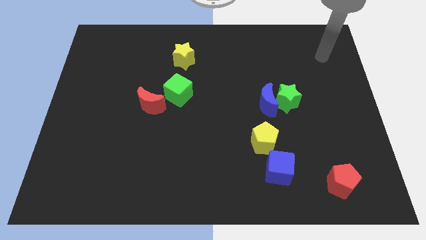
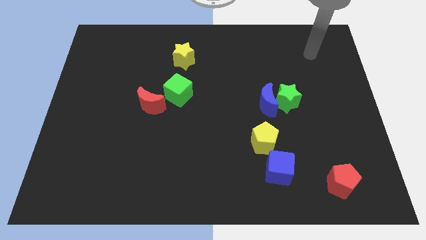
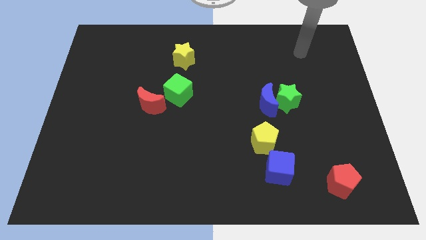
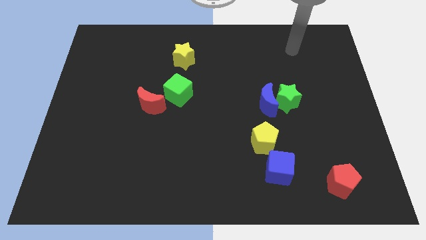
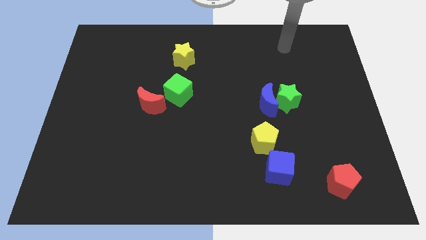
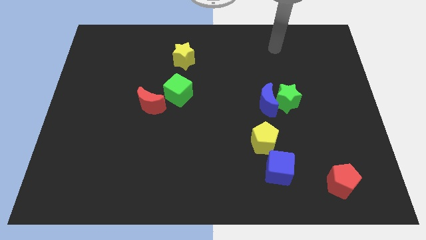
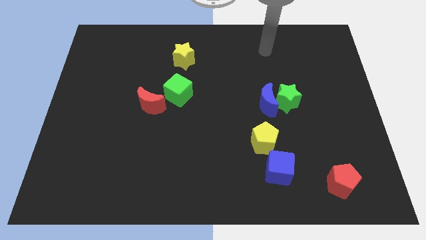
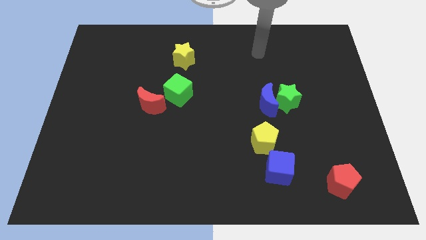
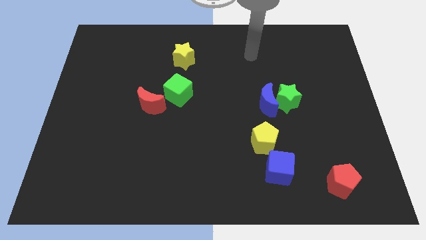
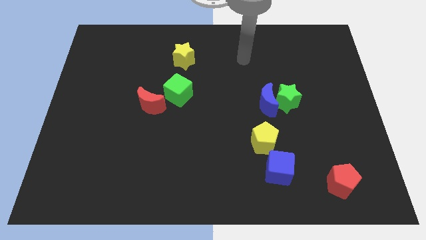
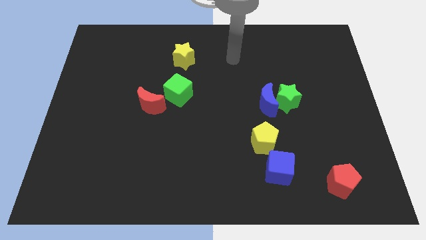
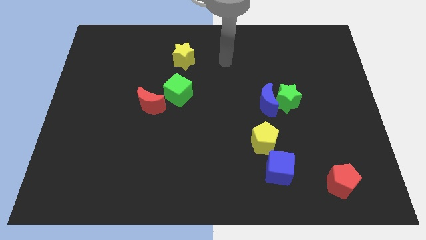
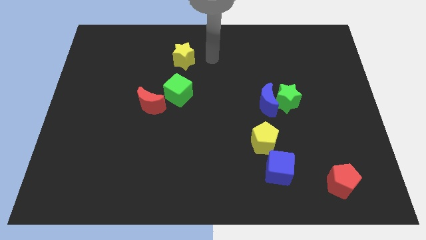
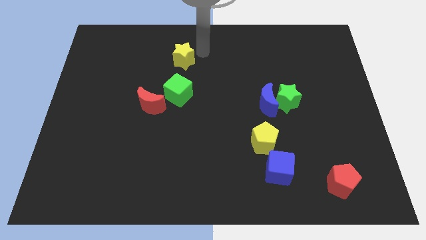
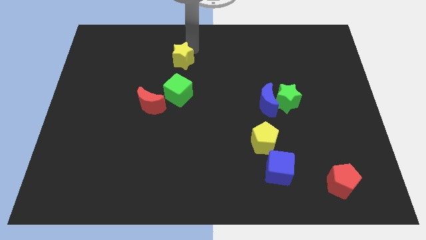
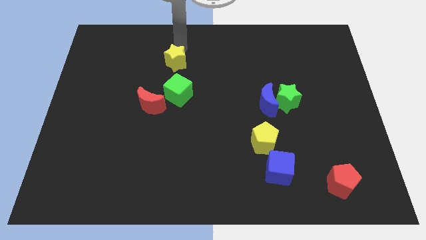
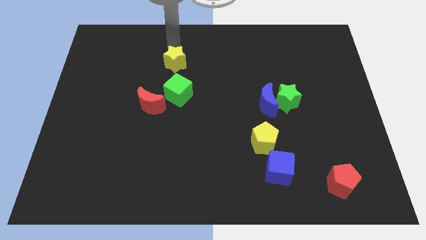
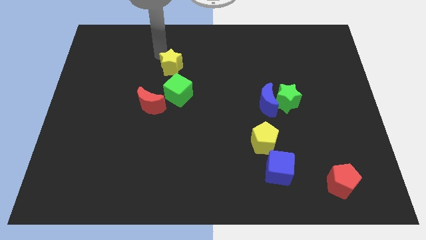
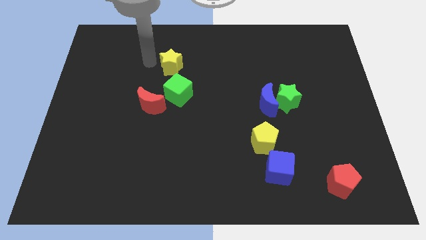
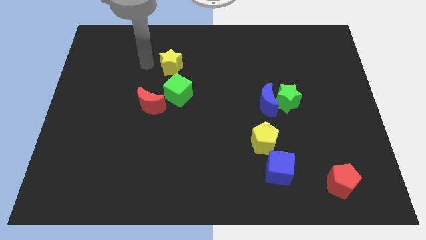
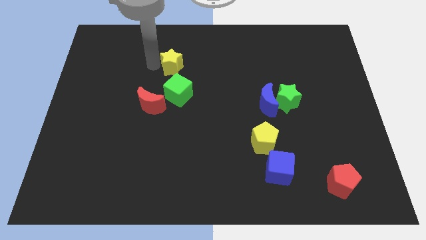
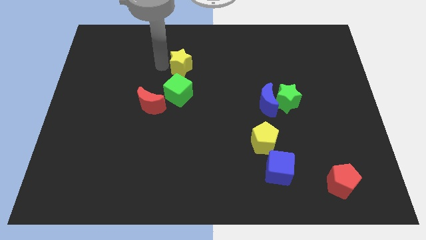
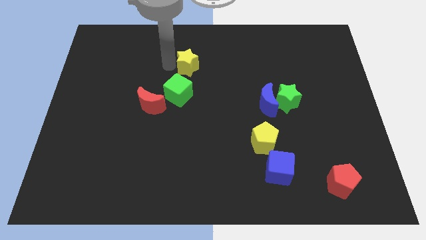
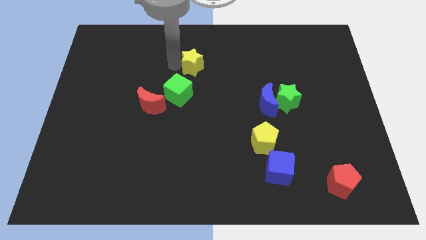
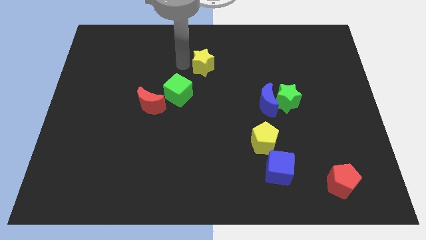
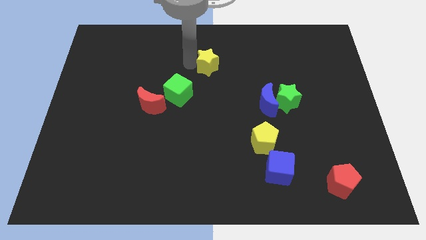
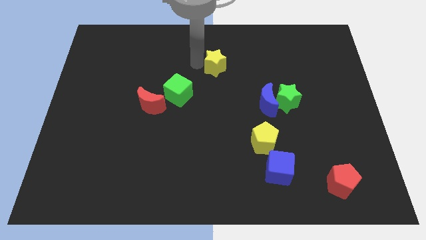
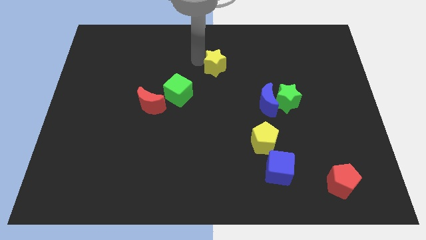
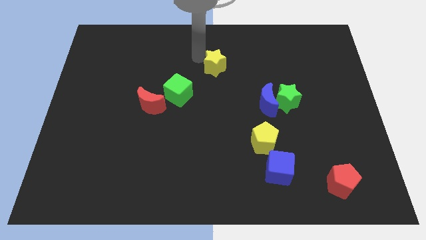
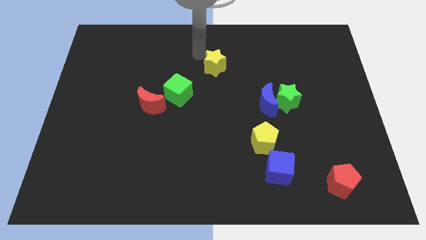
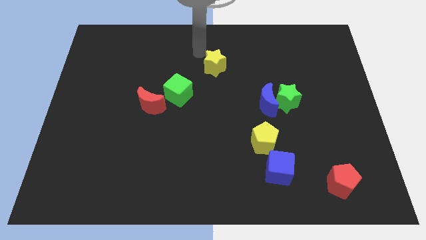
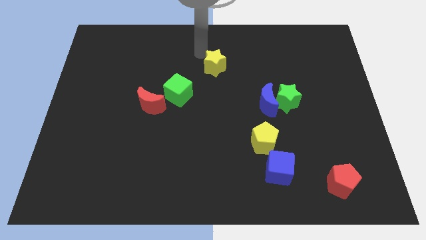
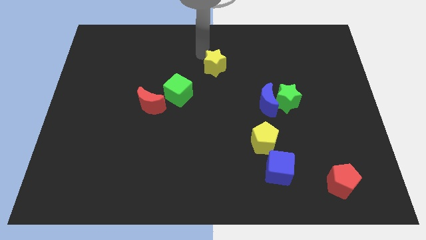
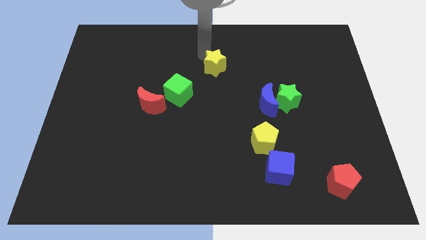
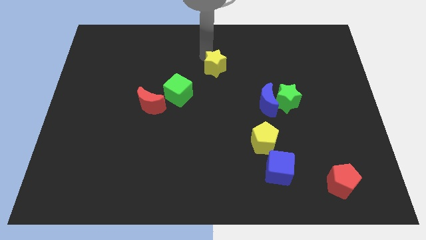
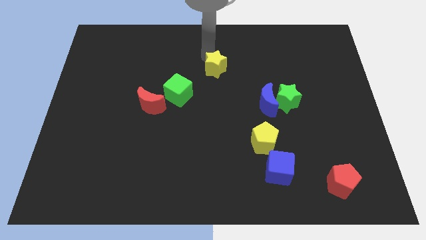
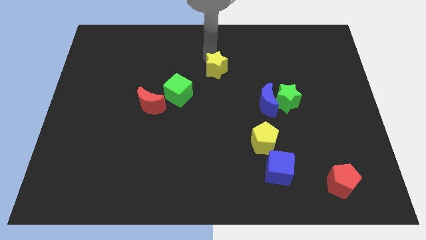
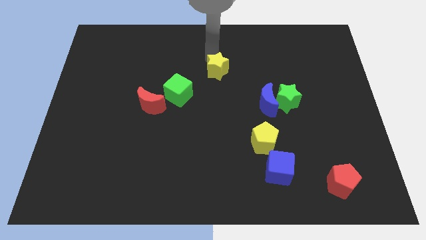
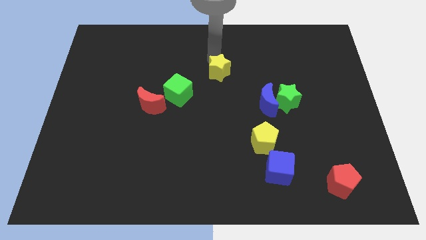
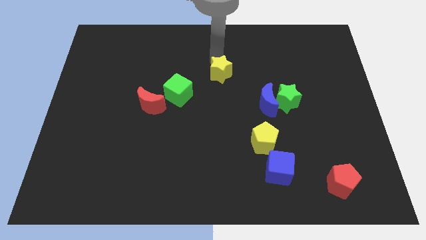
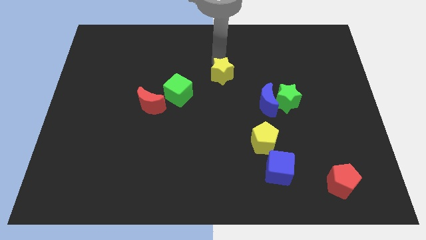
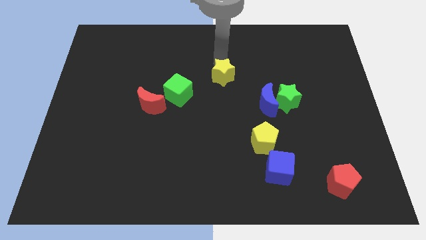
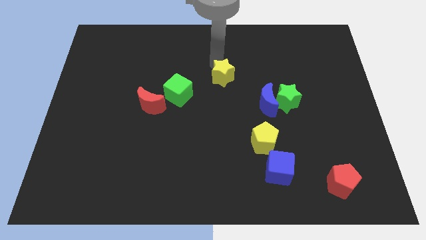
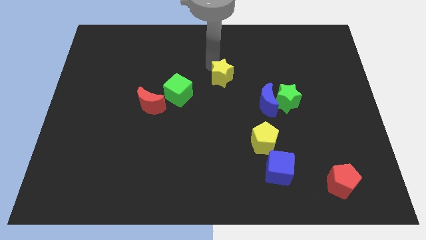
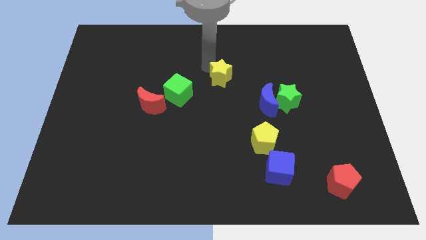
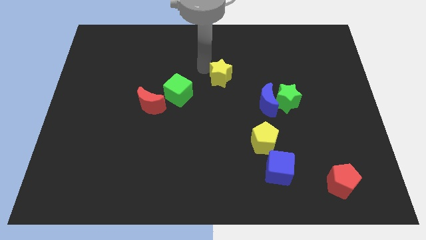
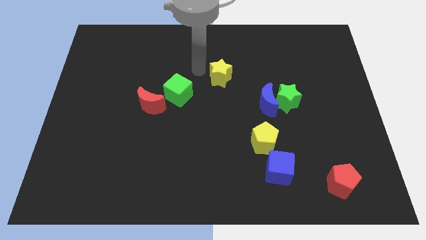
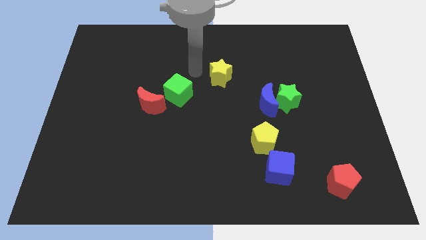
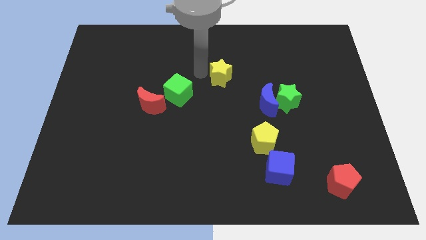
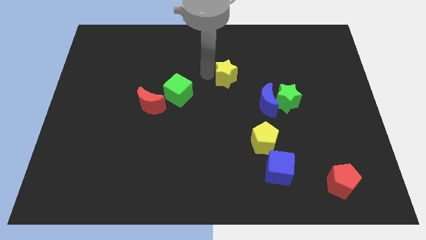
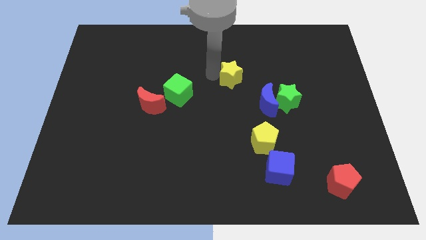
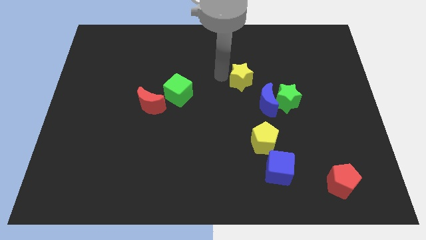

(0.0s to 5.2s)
slide the yellow star to the top left of the green star

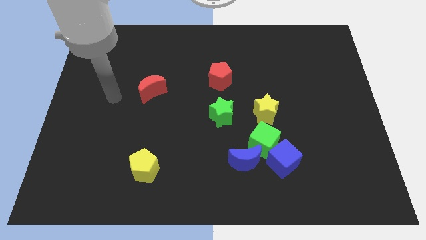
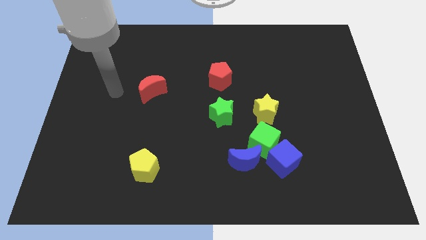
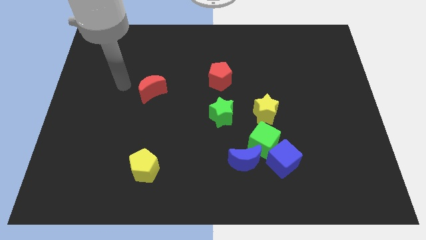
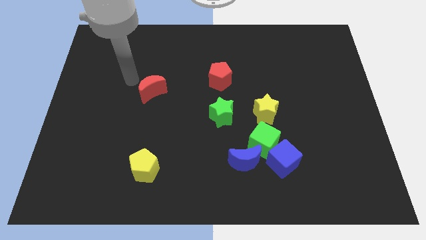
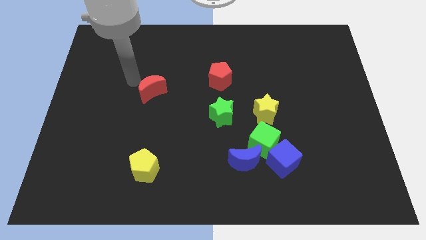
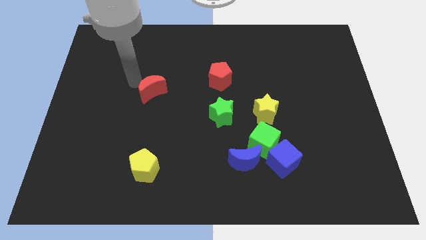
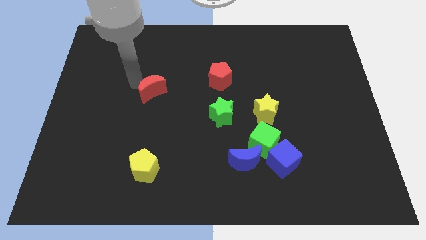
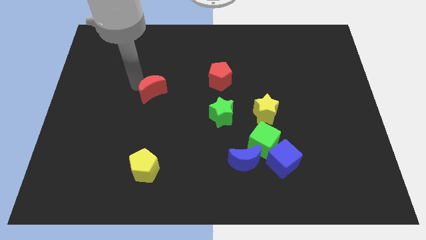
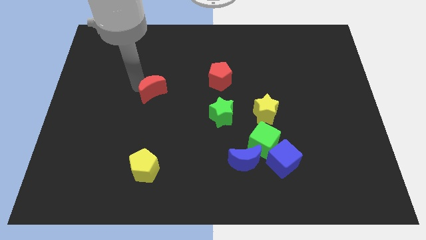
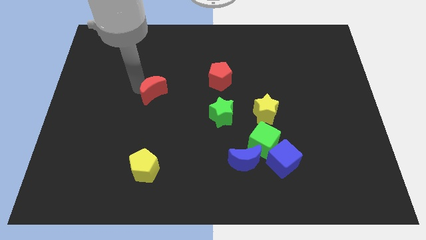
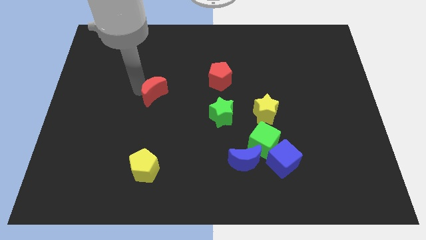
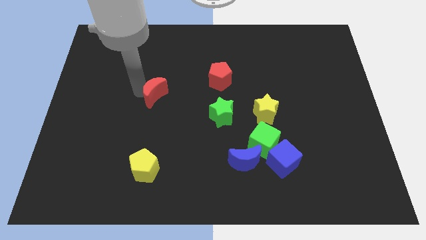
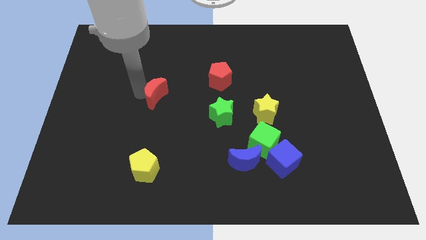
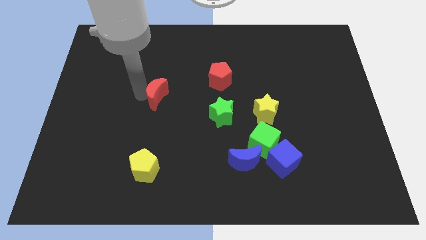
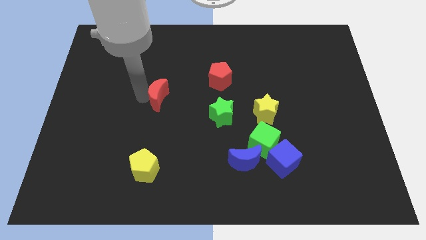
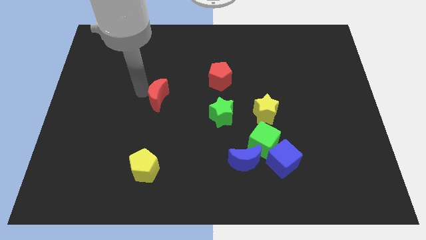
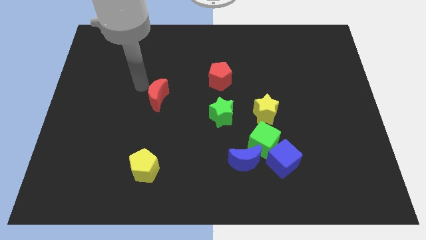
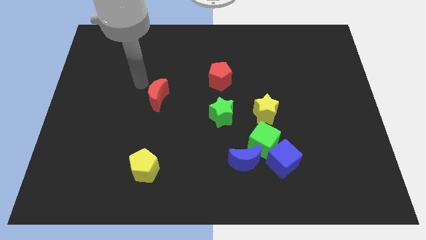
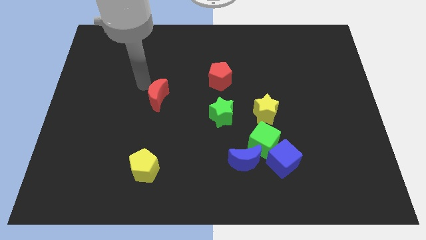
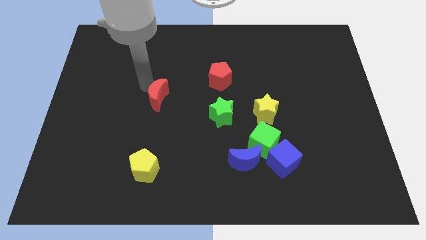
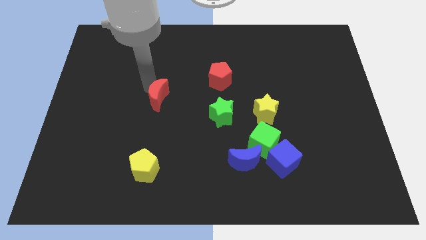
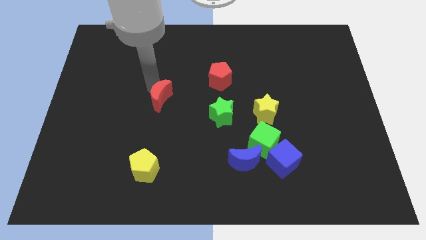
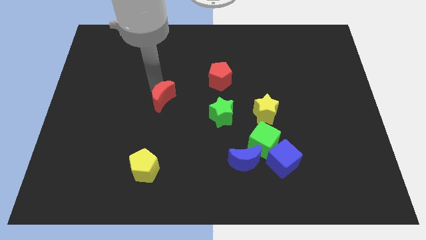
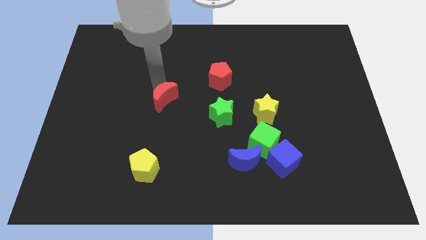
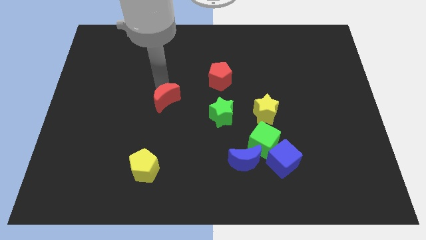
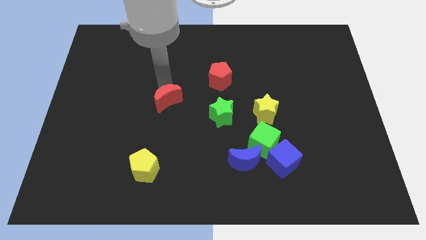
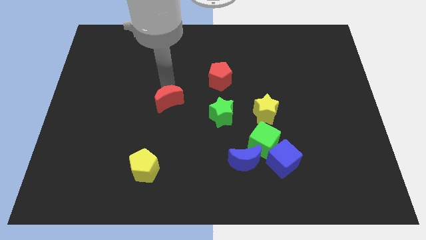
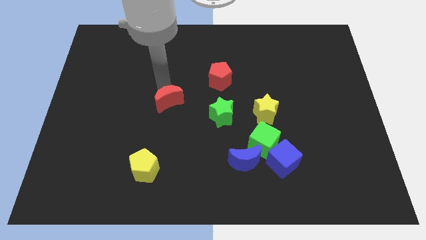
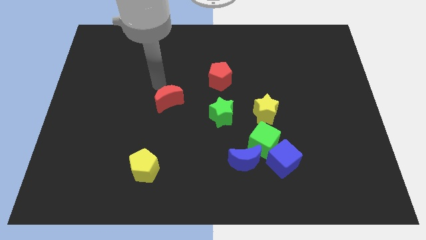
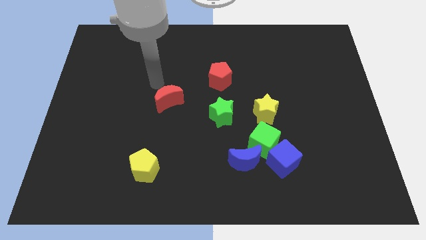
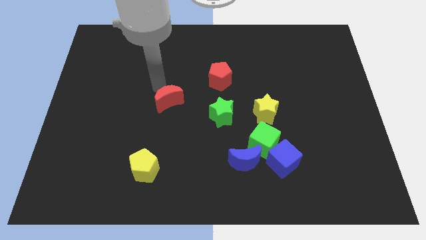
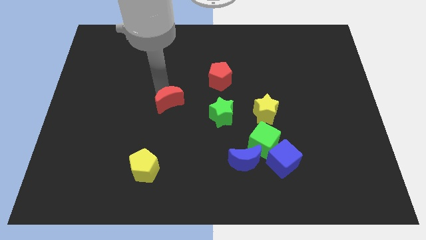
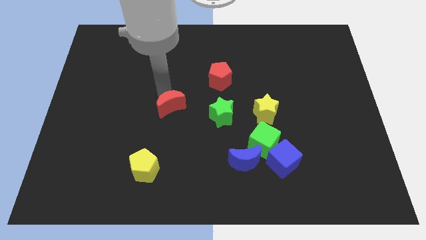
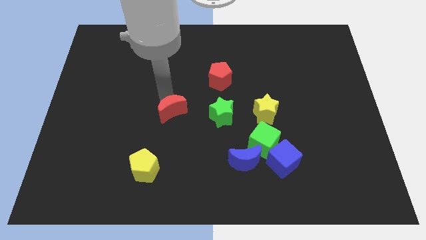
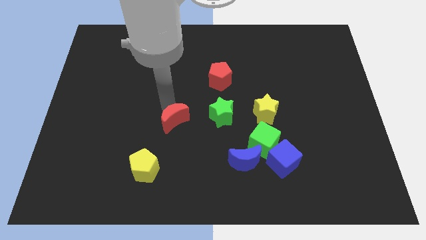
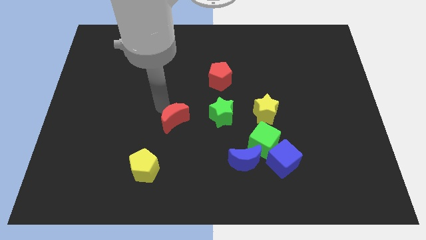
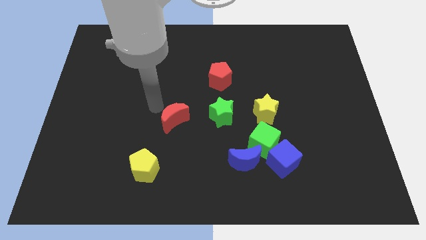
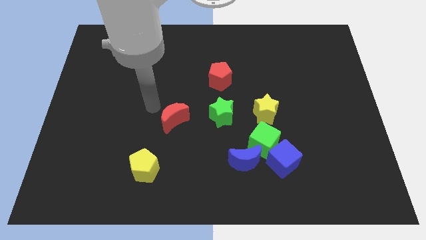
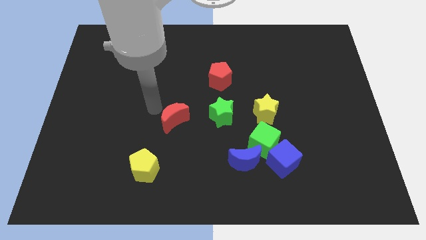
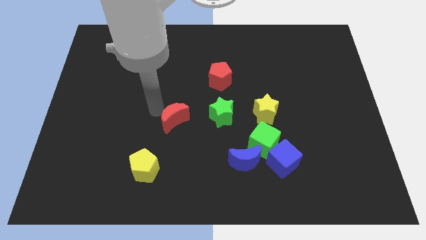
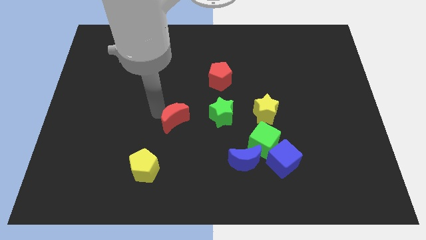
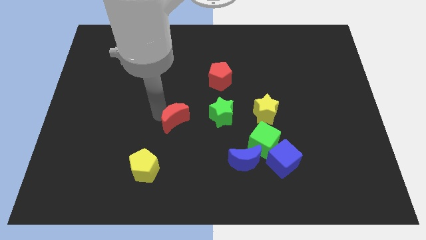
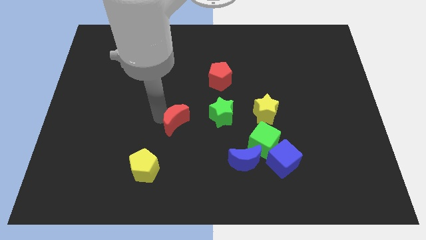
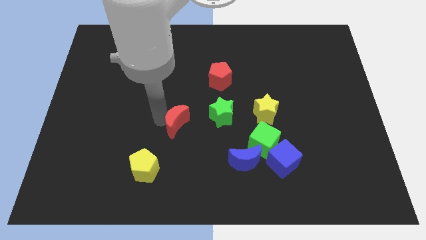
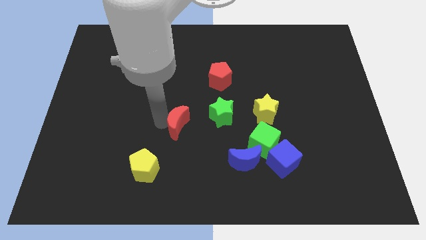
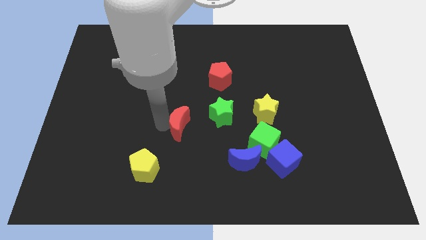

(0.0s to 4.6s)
move the red moon to the bottom left side of the green star
